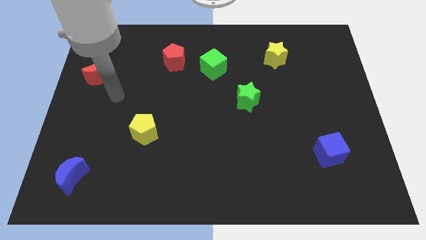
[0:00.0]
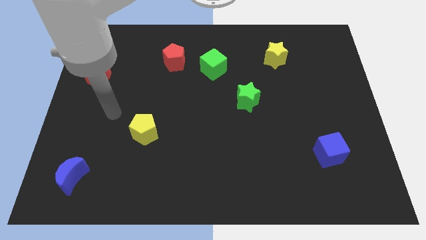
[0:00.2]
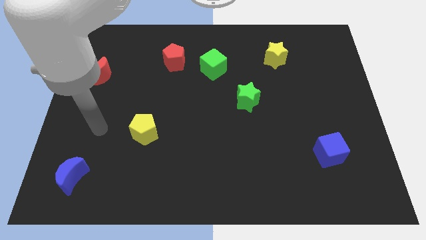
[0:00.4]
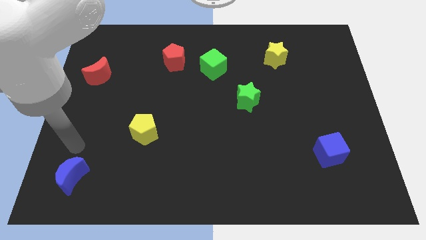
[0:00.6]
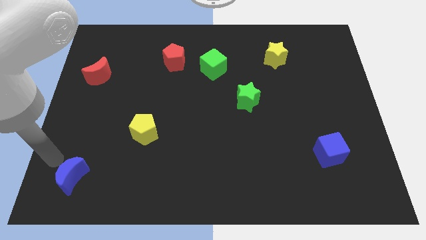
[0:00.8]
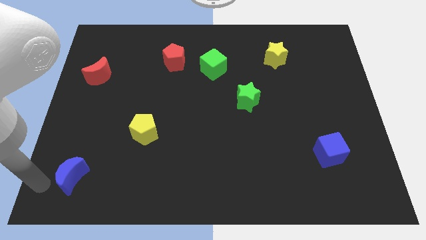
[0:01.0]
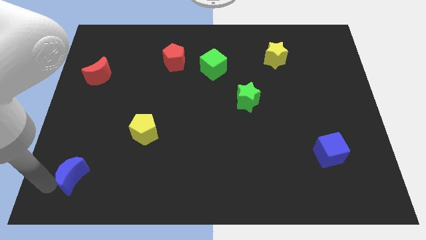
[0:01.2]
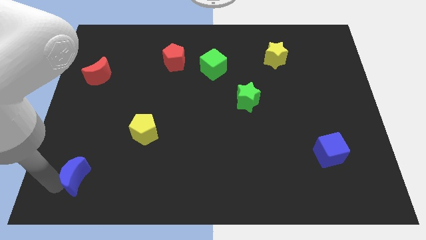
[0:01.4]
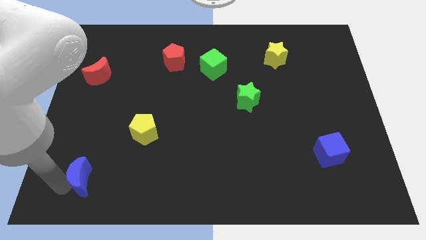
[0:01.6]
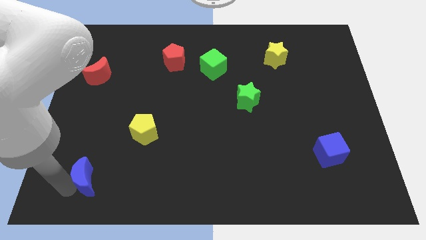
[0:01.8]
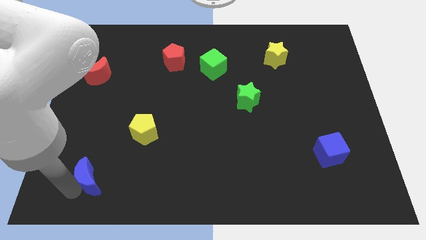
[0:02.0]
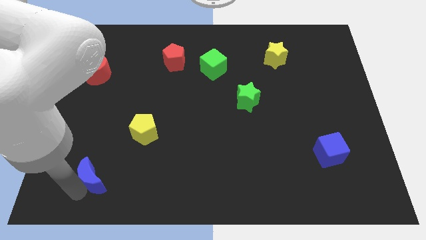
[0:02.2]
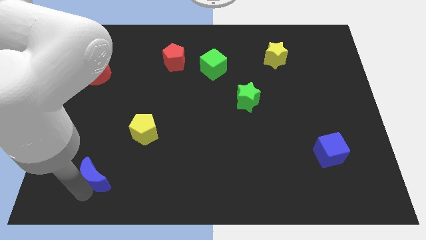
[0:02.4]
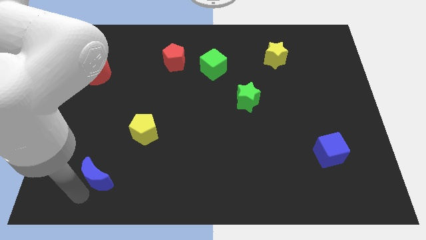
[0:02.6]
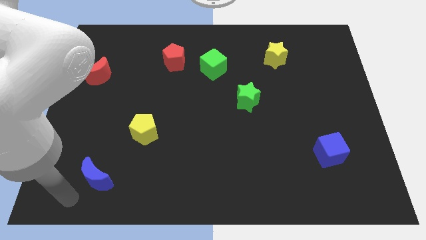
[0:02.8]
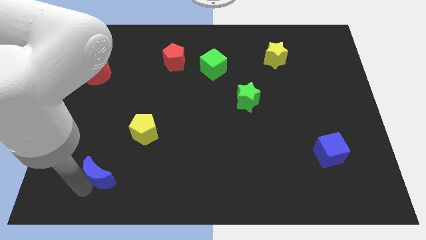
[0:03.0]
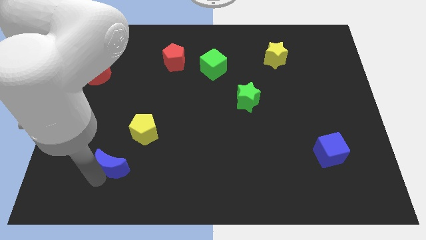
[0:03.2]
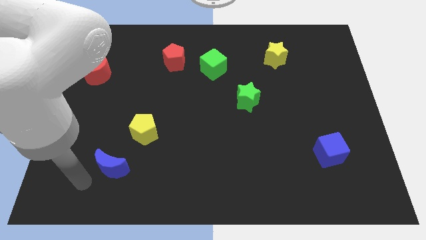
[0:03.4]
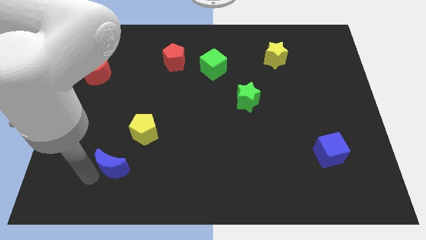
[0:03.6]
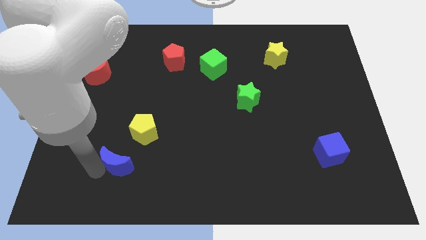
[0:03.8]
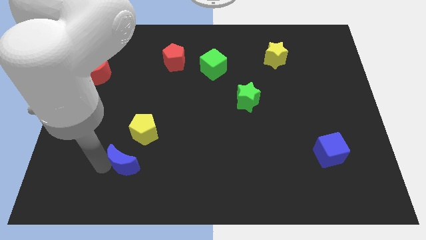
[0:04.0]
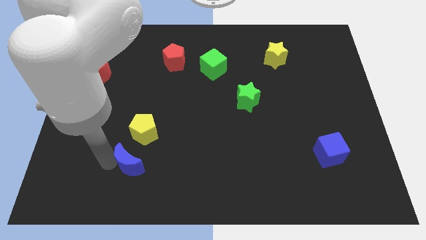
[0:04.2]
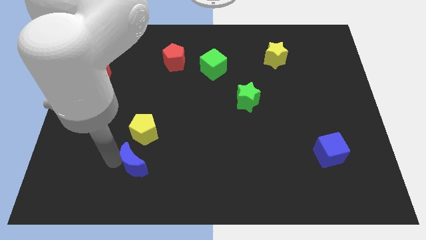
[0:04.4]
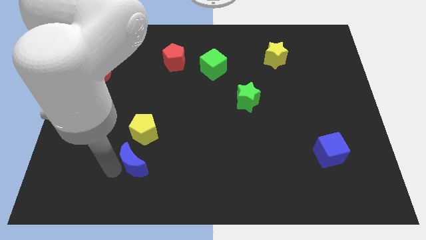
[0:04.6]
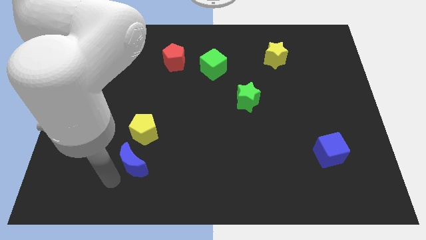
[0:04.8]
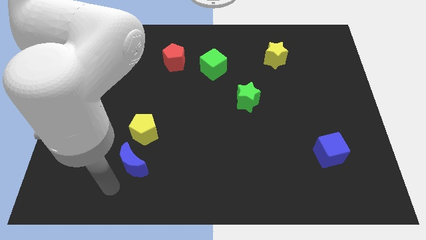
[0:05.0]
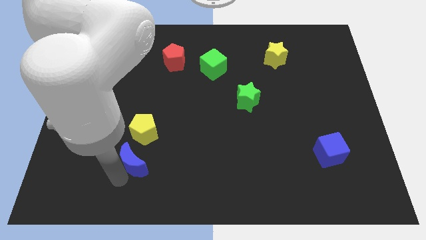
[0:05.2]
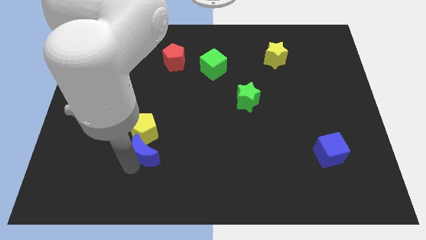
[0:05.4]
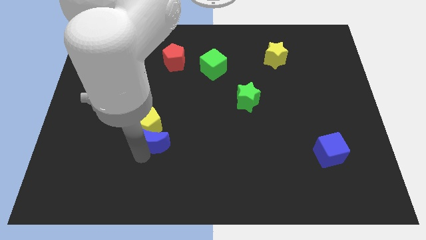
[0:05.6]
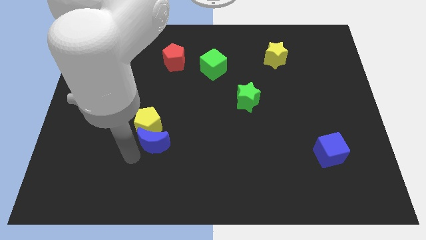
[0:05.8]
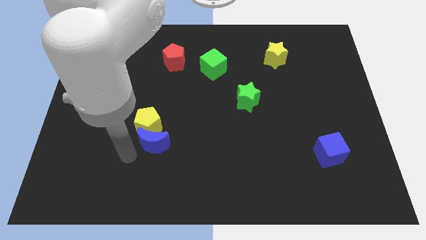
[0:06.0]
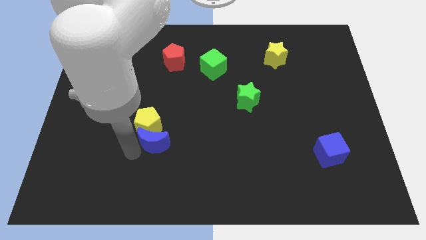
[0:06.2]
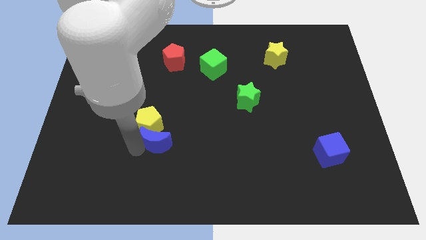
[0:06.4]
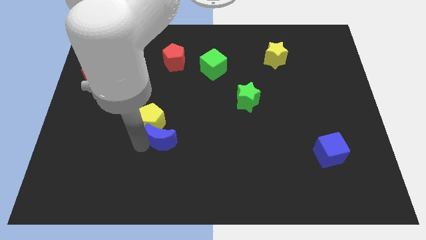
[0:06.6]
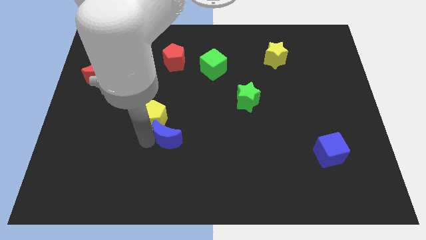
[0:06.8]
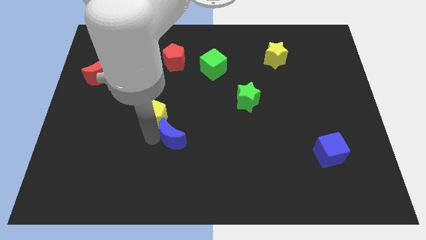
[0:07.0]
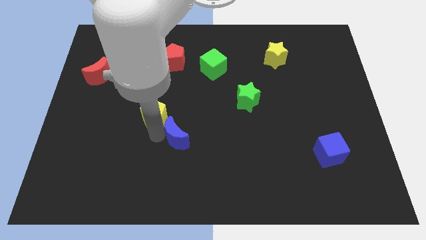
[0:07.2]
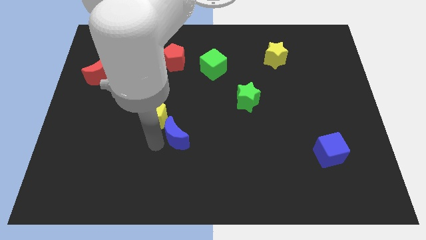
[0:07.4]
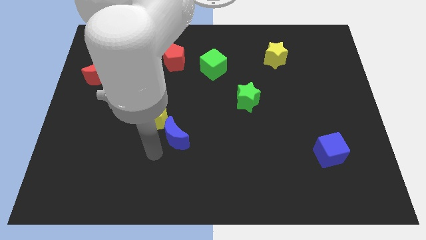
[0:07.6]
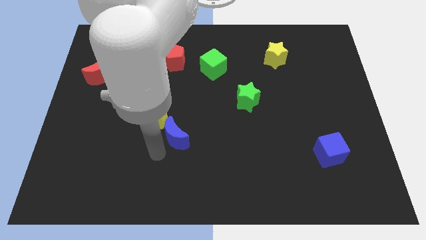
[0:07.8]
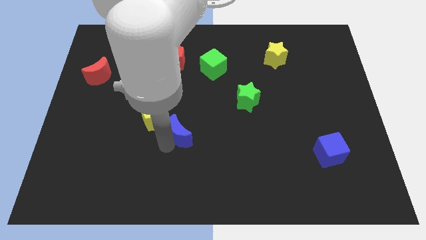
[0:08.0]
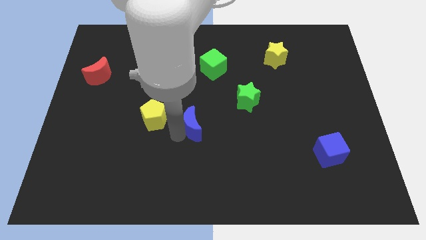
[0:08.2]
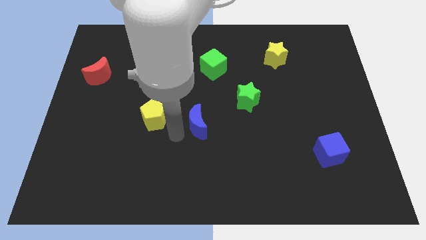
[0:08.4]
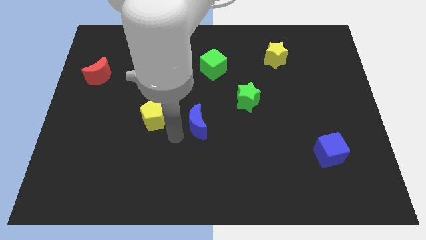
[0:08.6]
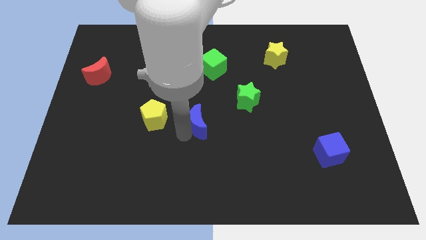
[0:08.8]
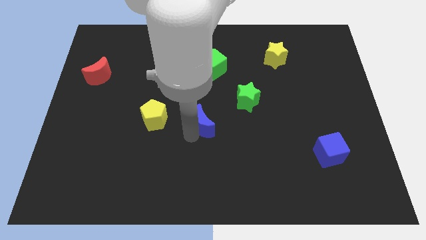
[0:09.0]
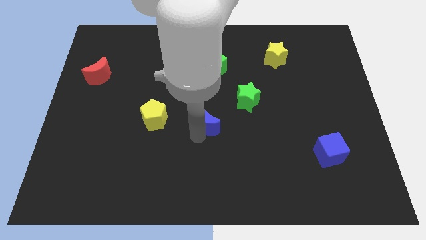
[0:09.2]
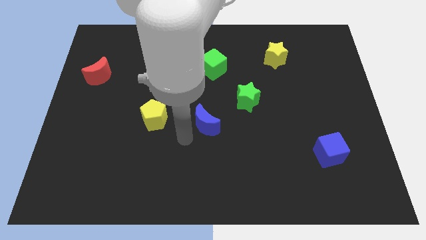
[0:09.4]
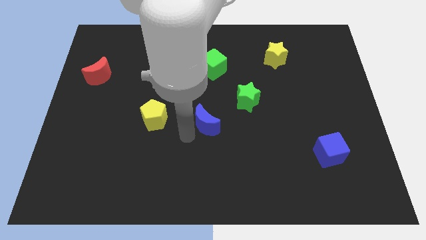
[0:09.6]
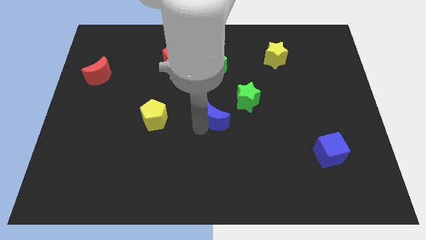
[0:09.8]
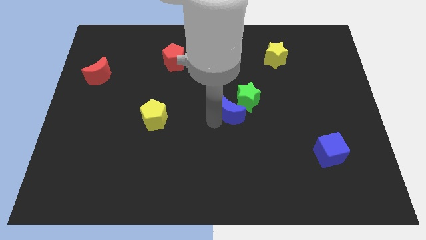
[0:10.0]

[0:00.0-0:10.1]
put the blue moon close to the green star

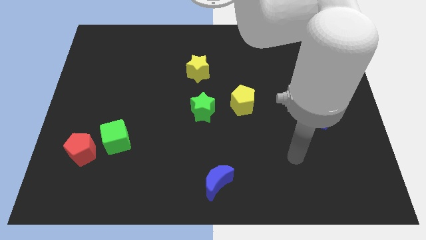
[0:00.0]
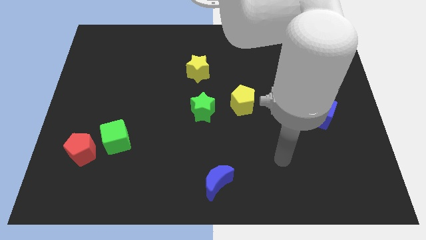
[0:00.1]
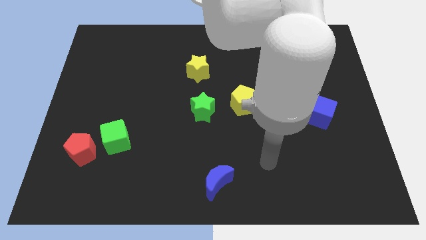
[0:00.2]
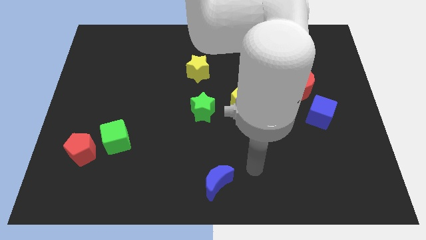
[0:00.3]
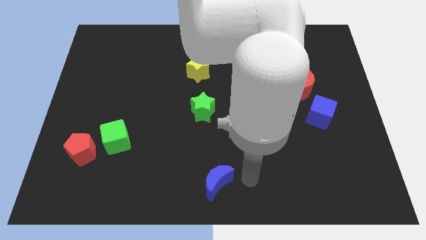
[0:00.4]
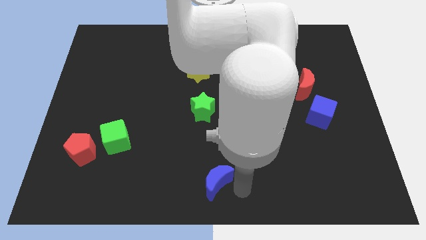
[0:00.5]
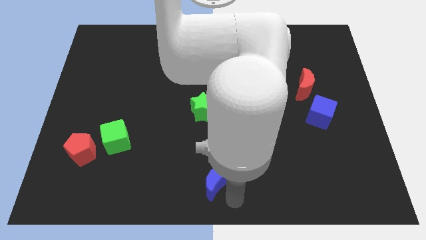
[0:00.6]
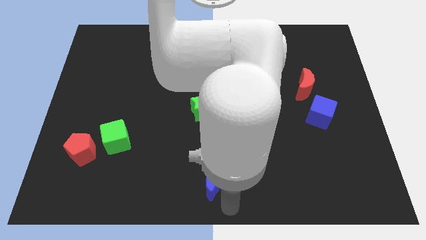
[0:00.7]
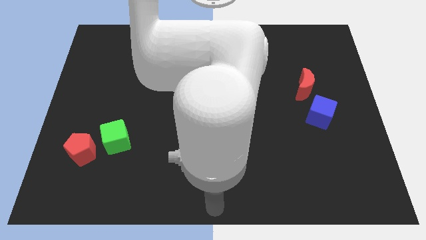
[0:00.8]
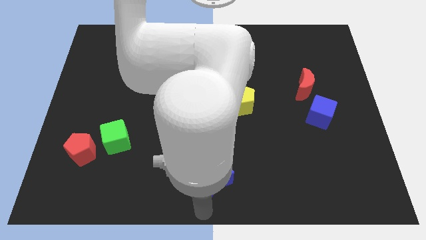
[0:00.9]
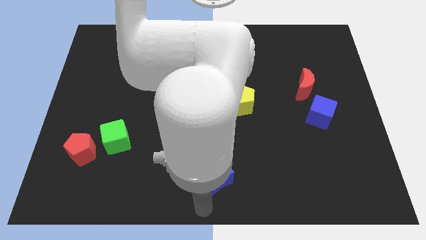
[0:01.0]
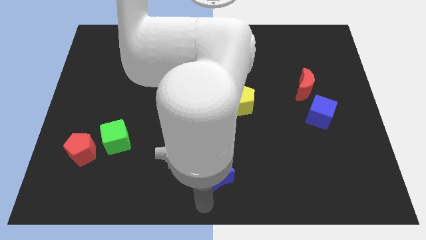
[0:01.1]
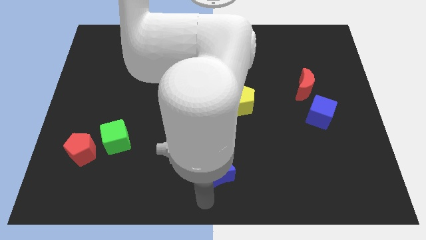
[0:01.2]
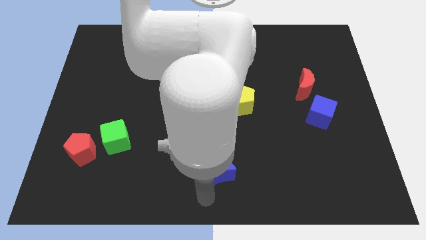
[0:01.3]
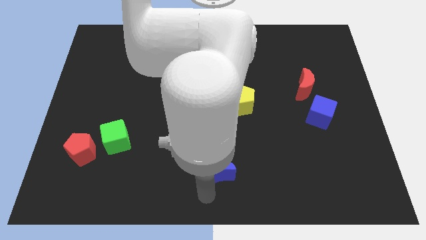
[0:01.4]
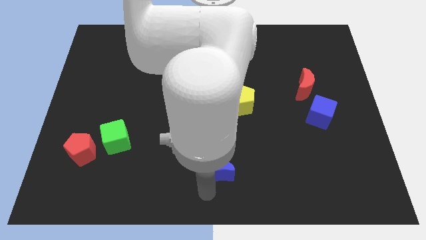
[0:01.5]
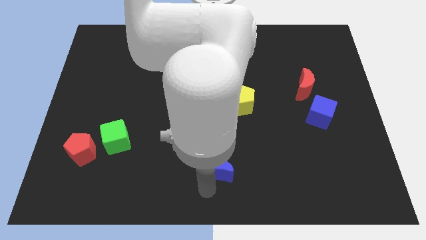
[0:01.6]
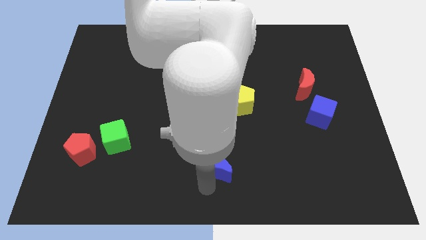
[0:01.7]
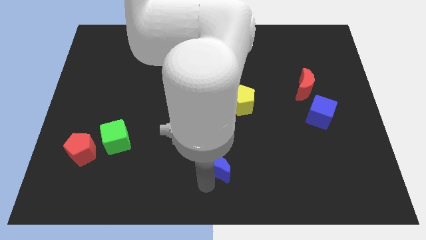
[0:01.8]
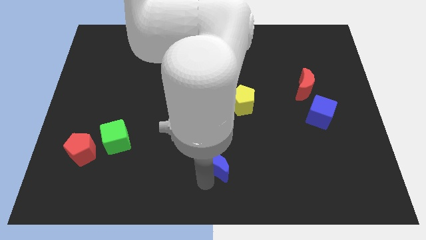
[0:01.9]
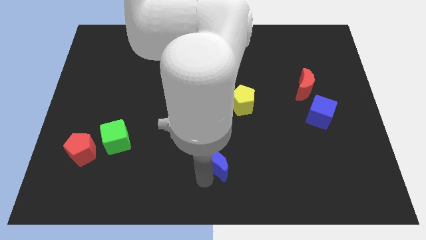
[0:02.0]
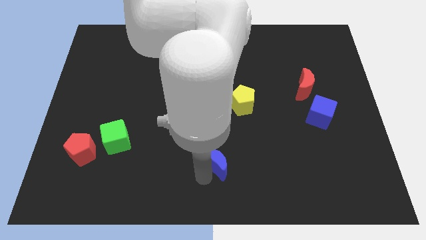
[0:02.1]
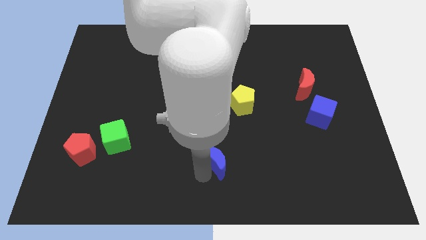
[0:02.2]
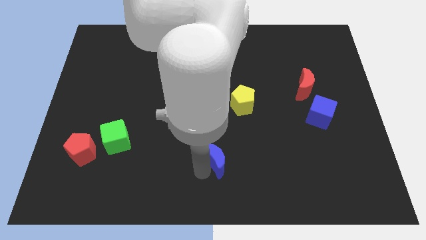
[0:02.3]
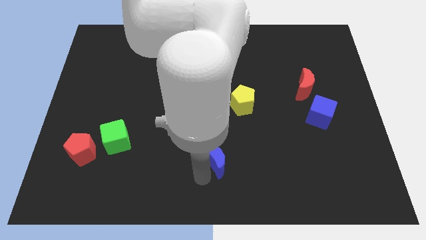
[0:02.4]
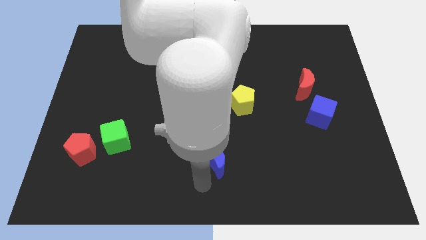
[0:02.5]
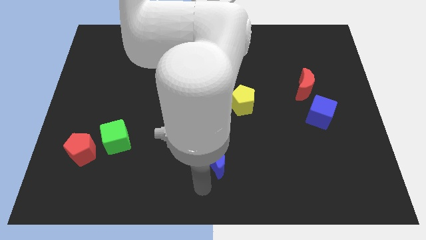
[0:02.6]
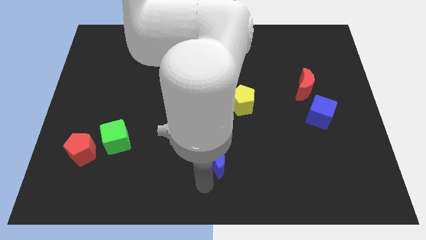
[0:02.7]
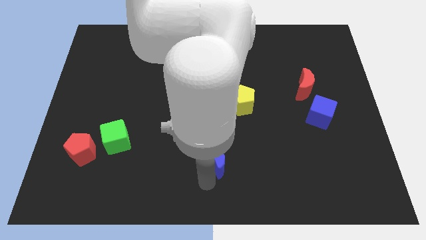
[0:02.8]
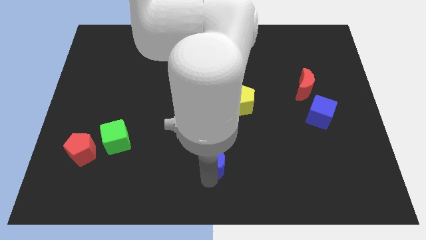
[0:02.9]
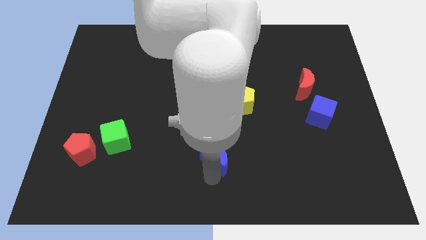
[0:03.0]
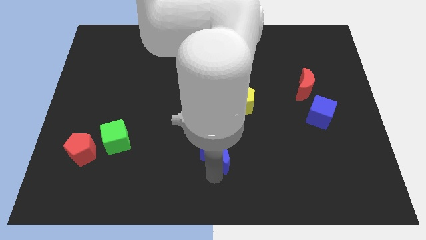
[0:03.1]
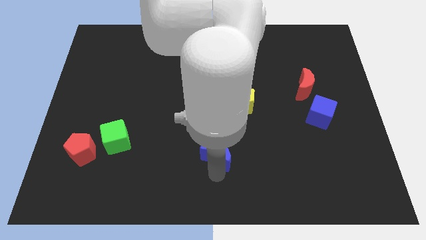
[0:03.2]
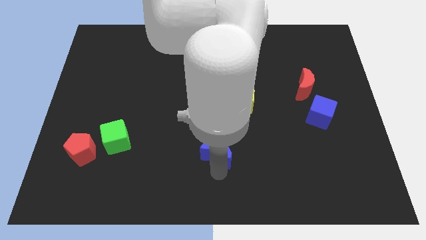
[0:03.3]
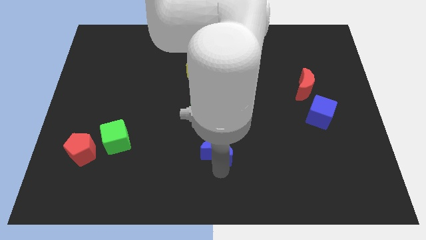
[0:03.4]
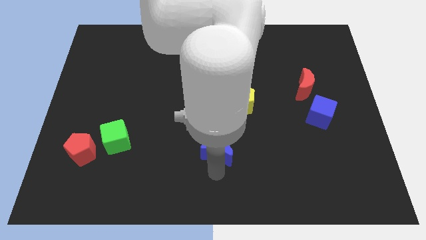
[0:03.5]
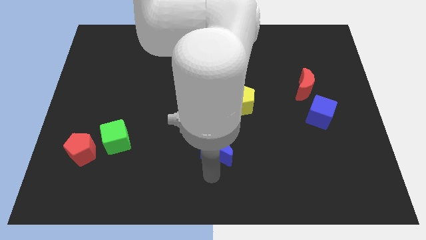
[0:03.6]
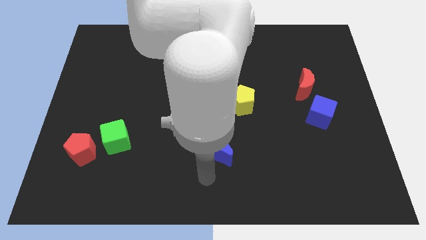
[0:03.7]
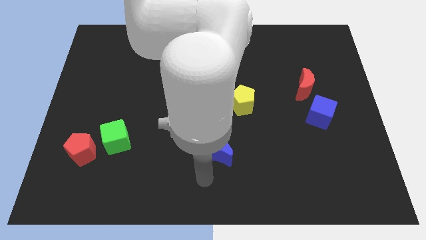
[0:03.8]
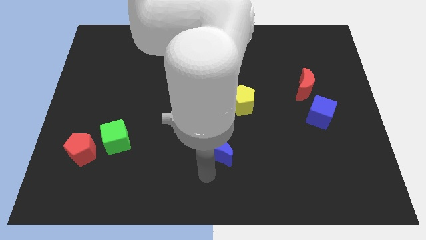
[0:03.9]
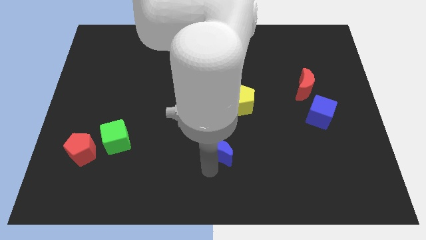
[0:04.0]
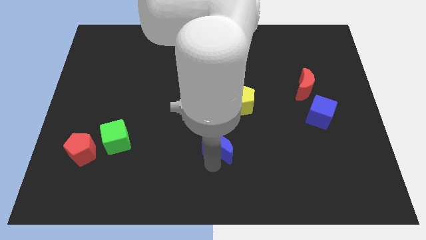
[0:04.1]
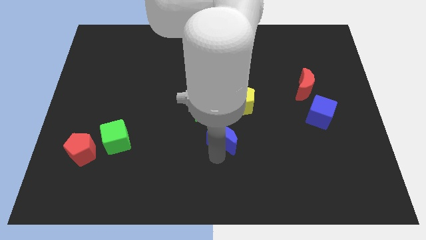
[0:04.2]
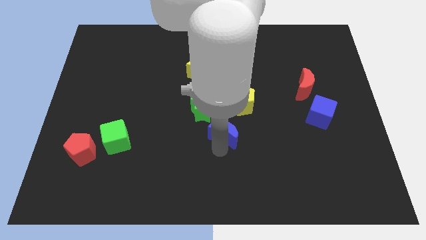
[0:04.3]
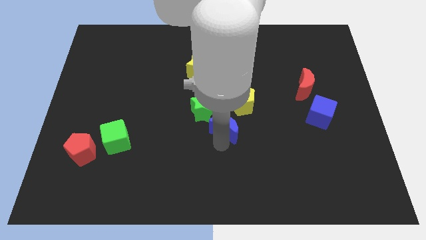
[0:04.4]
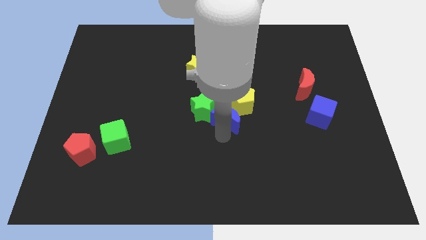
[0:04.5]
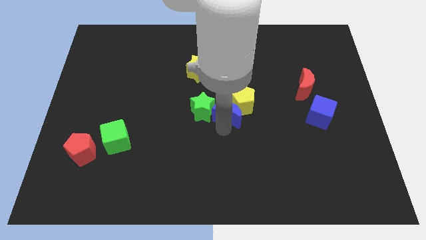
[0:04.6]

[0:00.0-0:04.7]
push the blue moon towards the yellow pentagon
